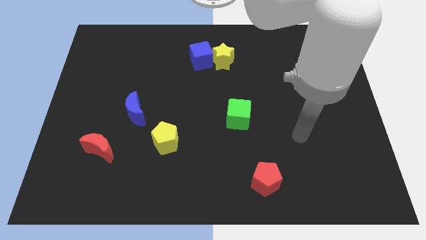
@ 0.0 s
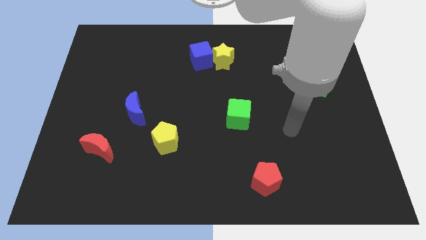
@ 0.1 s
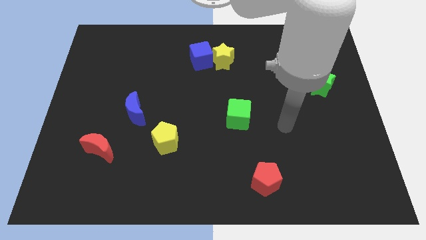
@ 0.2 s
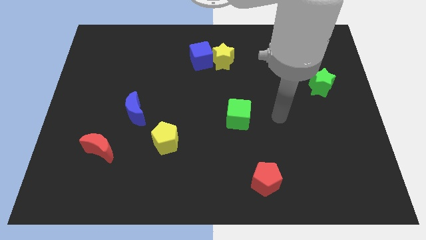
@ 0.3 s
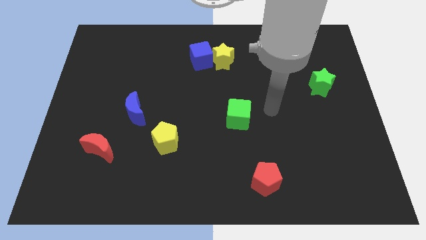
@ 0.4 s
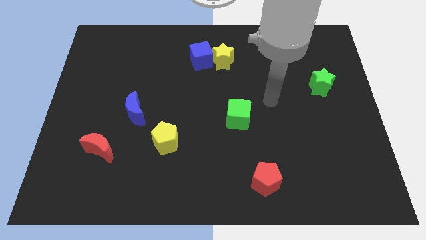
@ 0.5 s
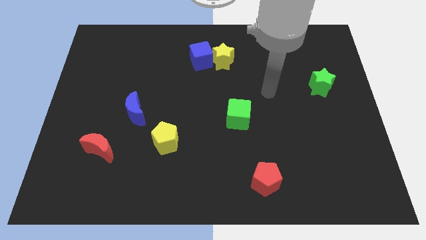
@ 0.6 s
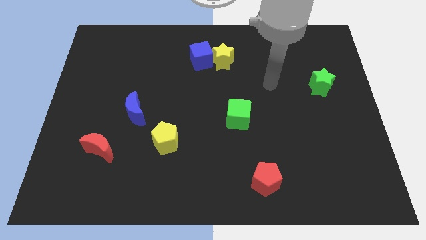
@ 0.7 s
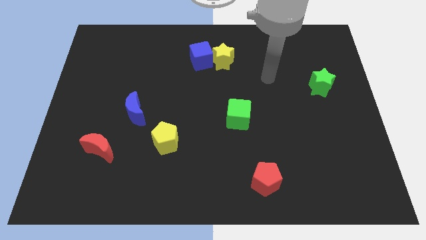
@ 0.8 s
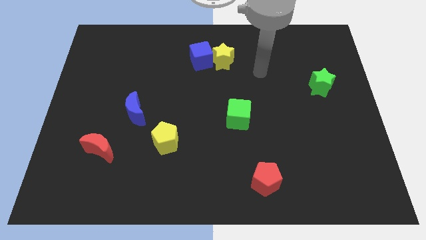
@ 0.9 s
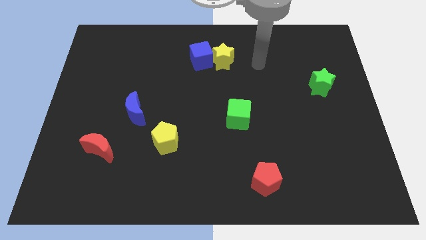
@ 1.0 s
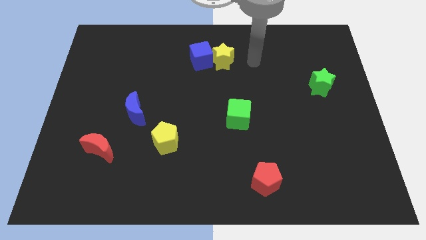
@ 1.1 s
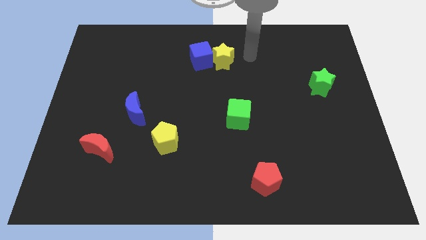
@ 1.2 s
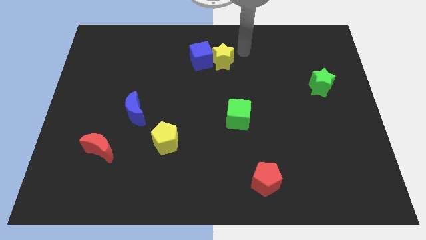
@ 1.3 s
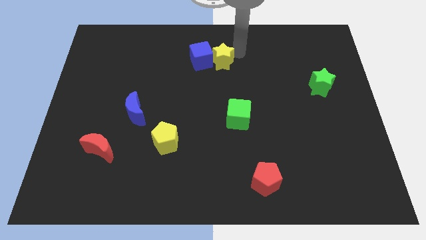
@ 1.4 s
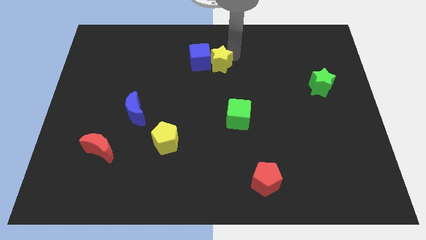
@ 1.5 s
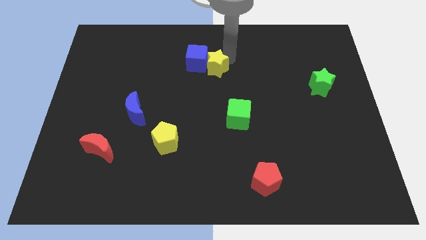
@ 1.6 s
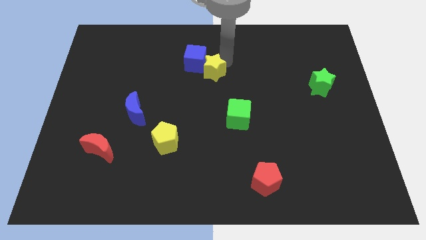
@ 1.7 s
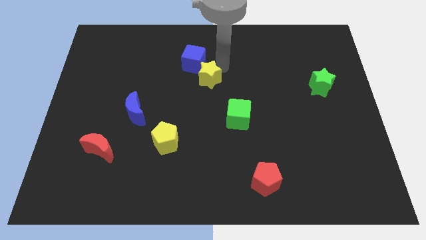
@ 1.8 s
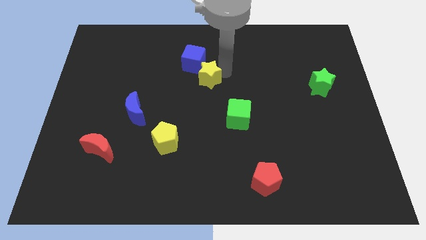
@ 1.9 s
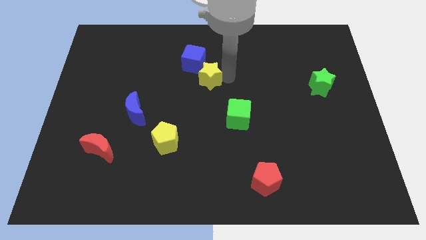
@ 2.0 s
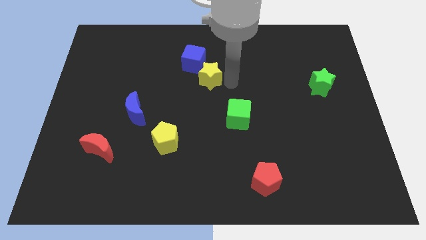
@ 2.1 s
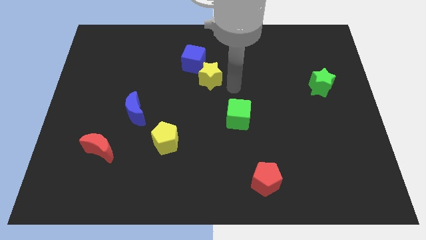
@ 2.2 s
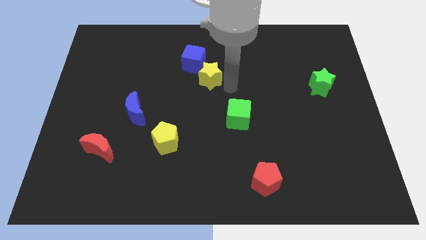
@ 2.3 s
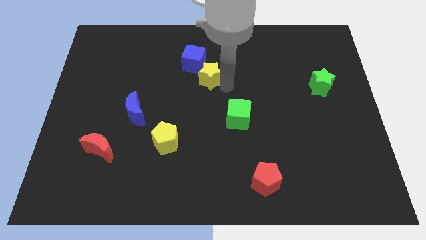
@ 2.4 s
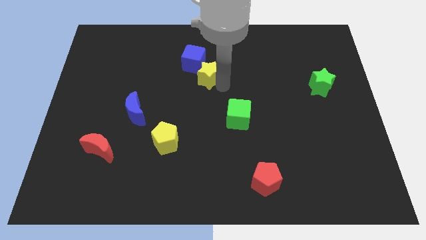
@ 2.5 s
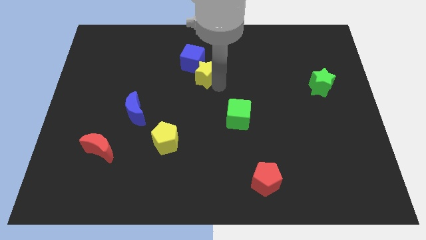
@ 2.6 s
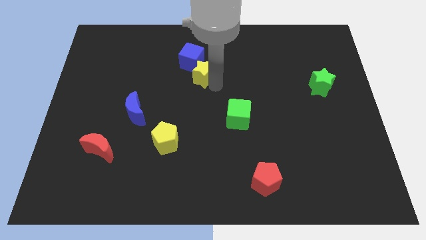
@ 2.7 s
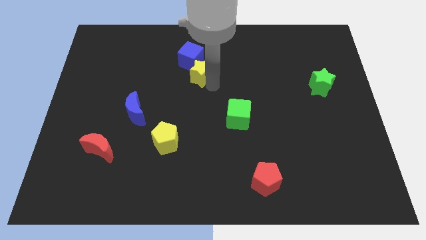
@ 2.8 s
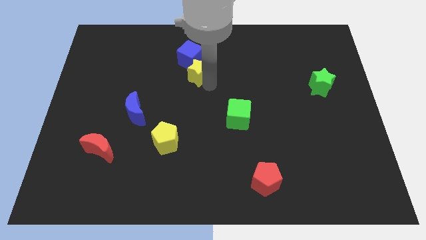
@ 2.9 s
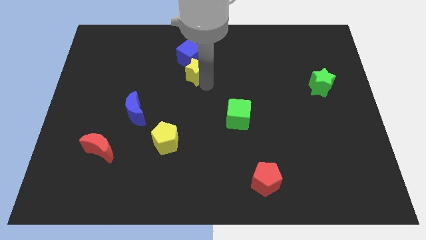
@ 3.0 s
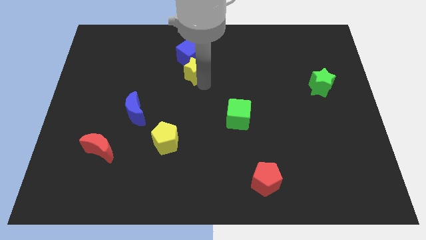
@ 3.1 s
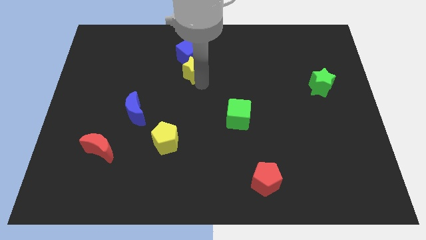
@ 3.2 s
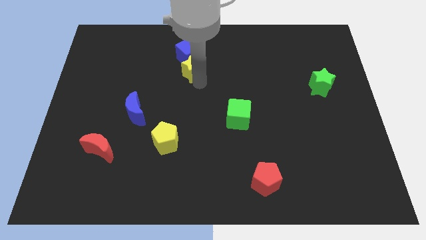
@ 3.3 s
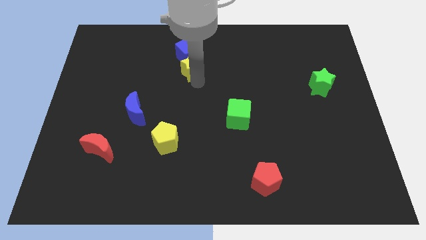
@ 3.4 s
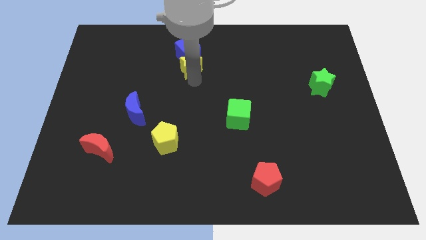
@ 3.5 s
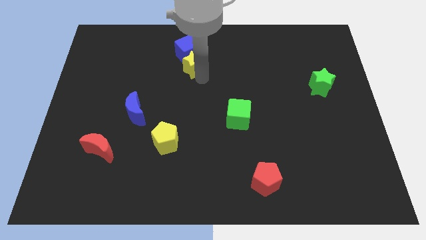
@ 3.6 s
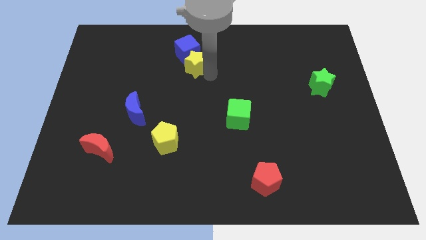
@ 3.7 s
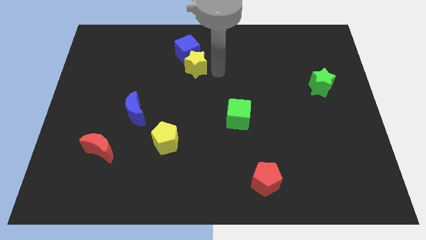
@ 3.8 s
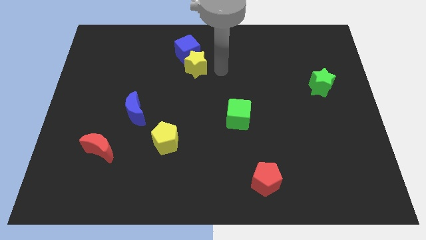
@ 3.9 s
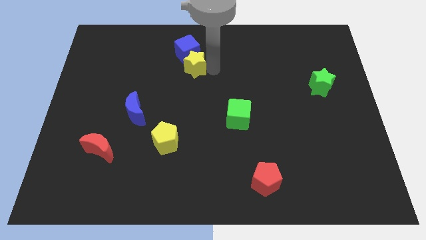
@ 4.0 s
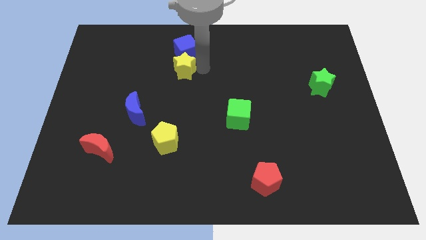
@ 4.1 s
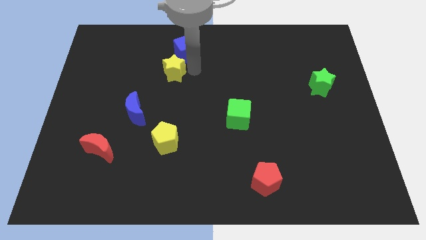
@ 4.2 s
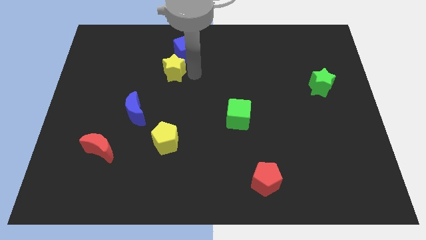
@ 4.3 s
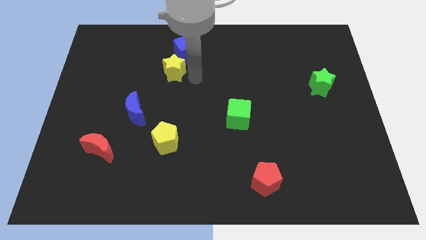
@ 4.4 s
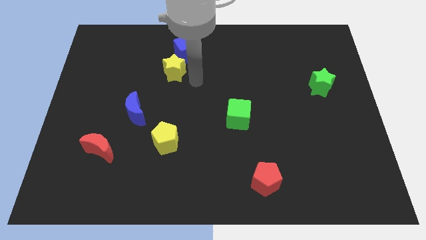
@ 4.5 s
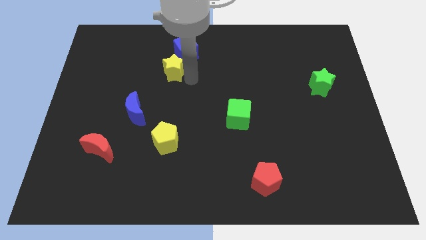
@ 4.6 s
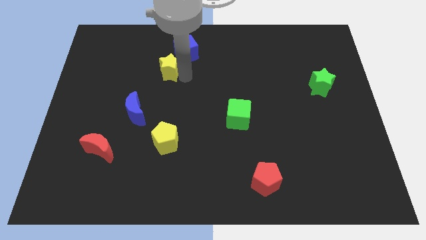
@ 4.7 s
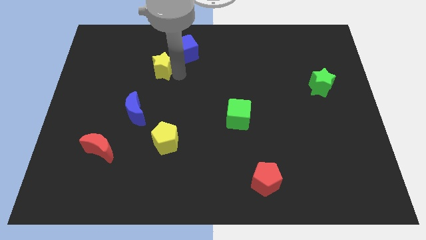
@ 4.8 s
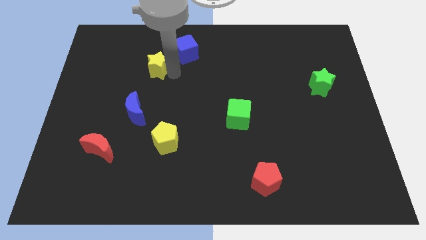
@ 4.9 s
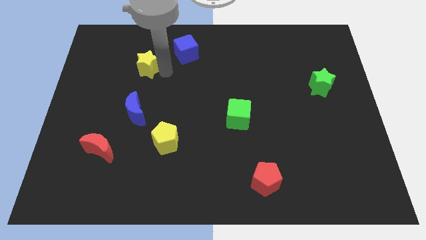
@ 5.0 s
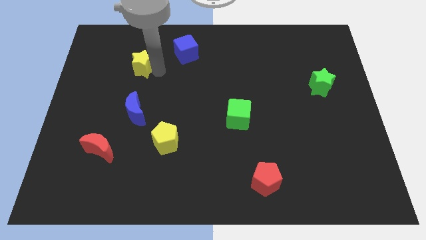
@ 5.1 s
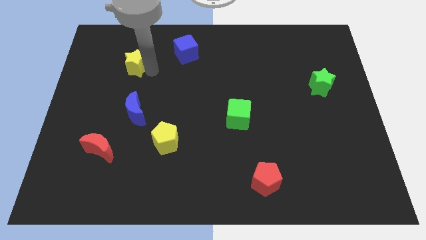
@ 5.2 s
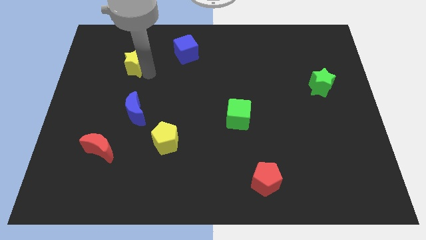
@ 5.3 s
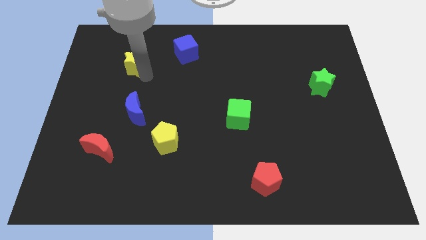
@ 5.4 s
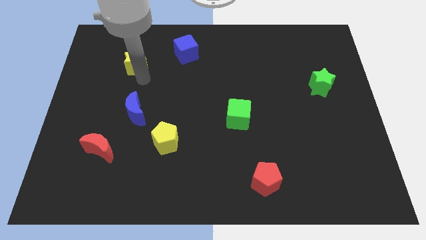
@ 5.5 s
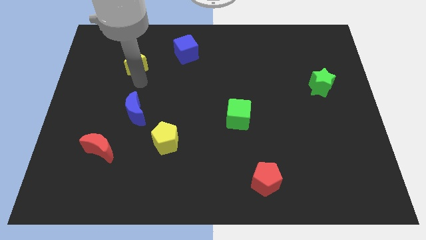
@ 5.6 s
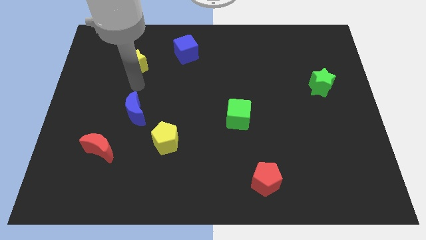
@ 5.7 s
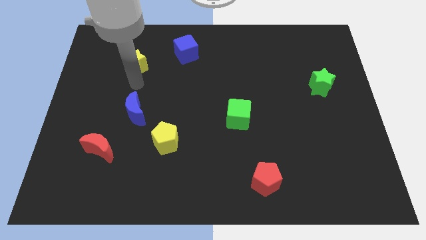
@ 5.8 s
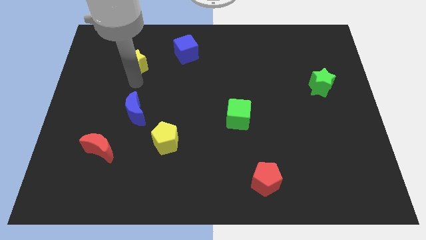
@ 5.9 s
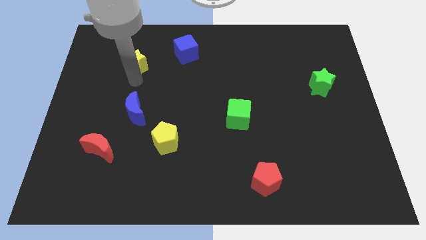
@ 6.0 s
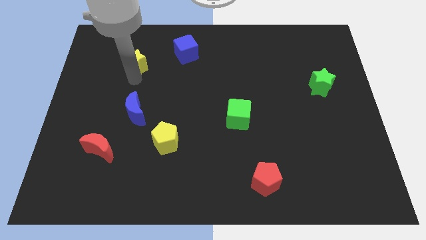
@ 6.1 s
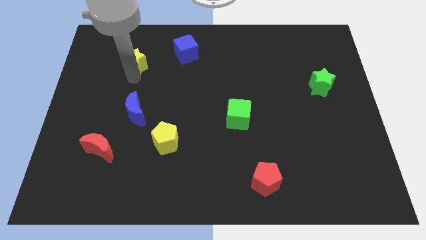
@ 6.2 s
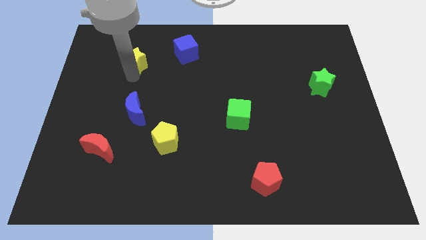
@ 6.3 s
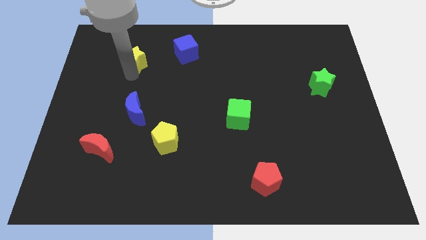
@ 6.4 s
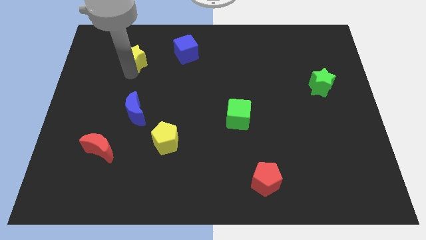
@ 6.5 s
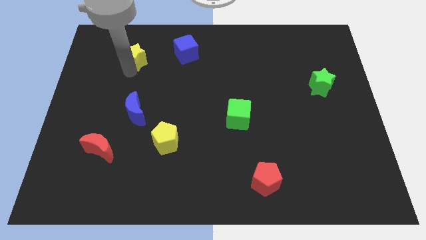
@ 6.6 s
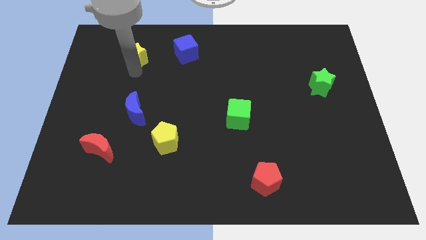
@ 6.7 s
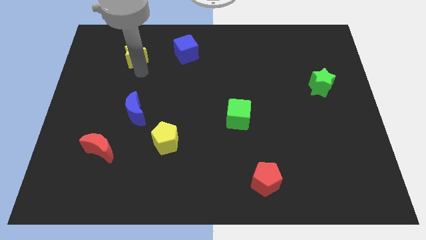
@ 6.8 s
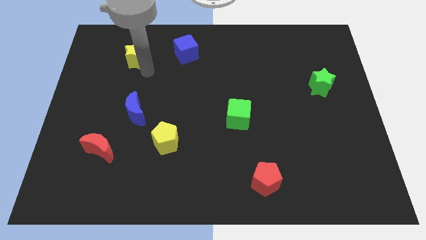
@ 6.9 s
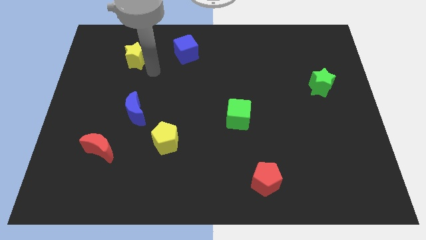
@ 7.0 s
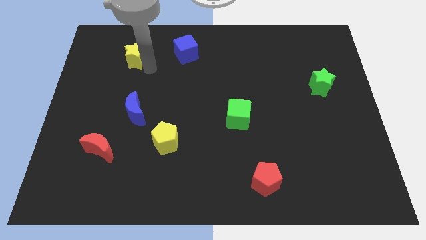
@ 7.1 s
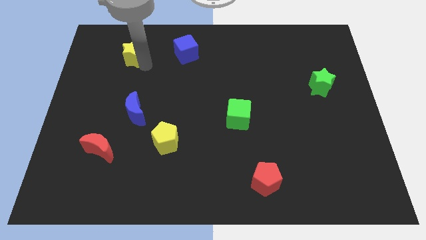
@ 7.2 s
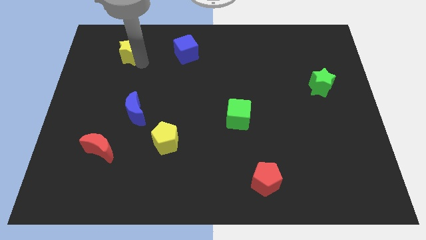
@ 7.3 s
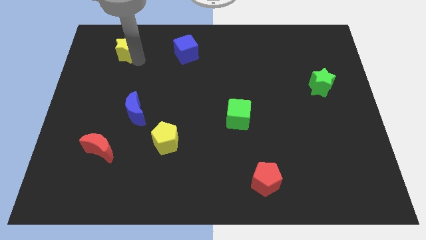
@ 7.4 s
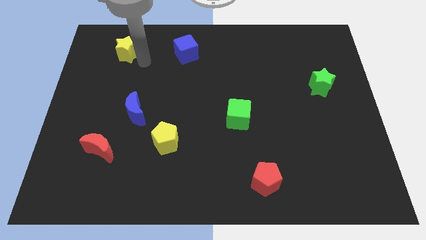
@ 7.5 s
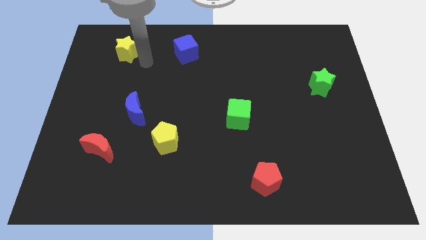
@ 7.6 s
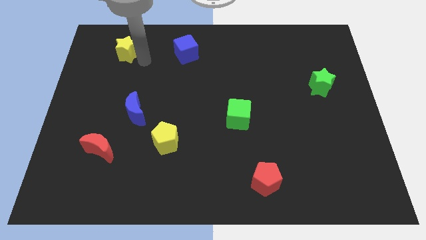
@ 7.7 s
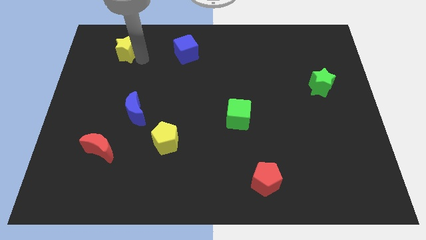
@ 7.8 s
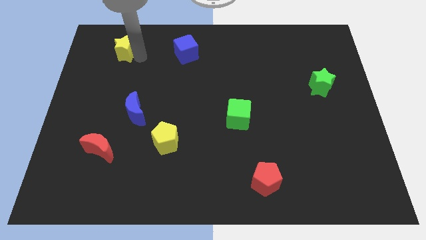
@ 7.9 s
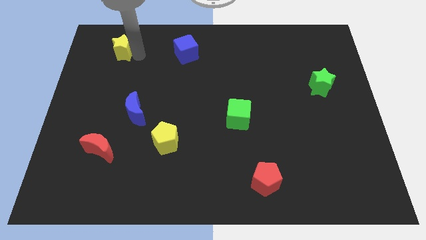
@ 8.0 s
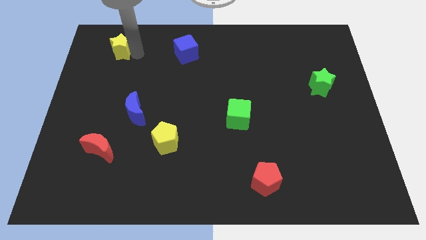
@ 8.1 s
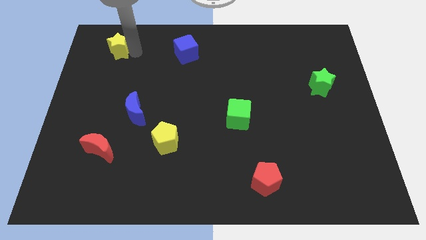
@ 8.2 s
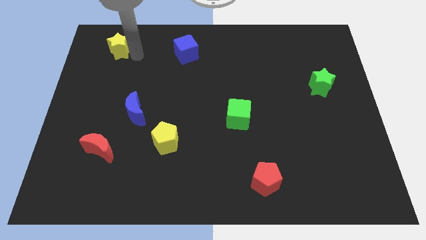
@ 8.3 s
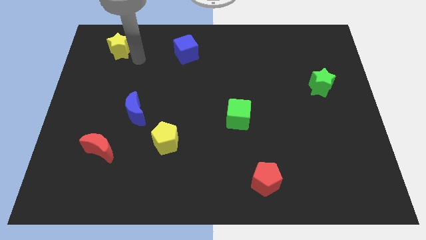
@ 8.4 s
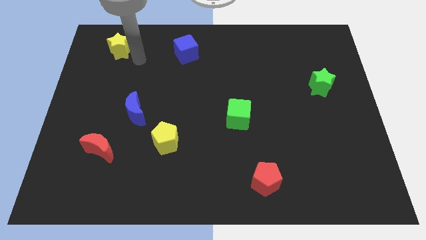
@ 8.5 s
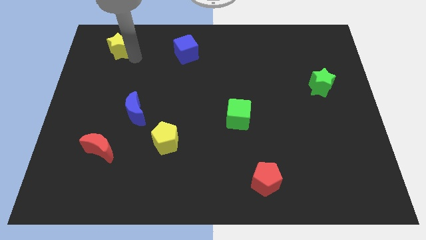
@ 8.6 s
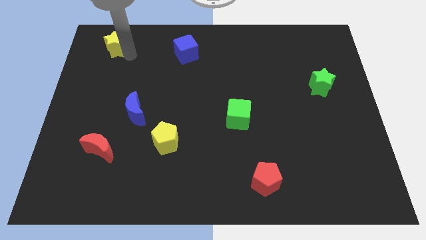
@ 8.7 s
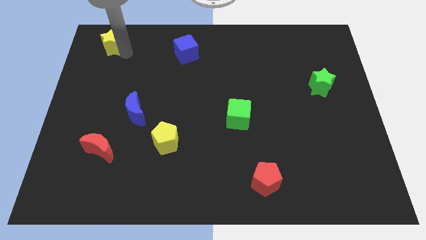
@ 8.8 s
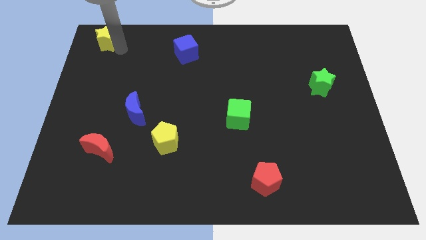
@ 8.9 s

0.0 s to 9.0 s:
push the yellow star to the top left corner
